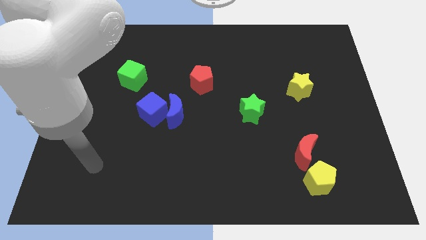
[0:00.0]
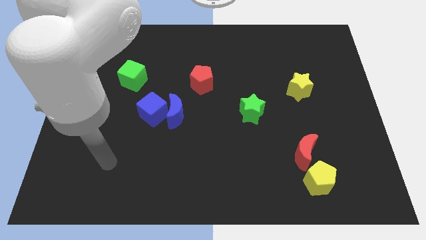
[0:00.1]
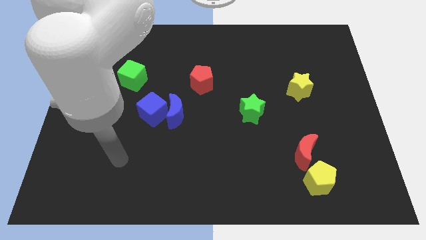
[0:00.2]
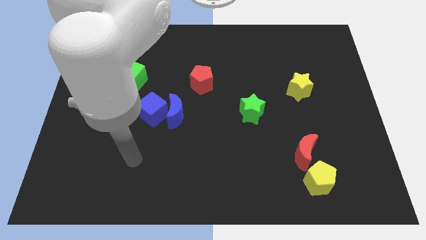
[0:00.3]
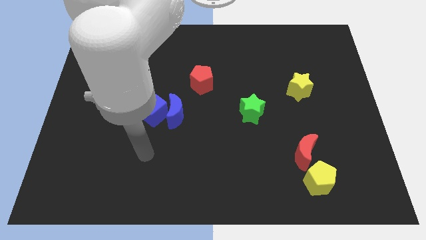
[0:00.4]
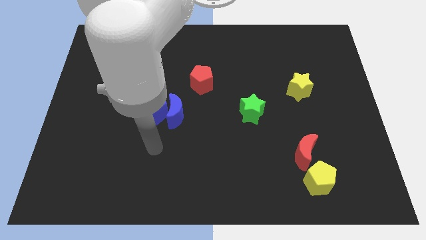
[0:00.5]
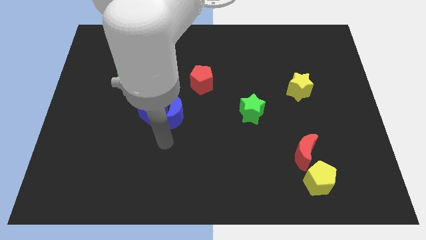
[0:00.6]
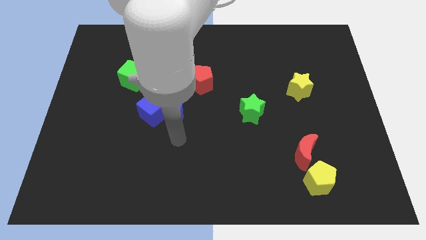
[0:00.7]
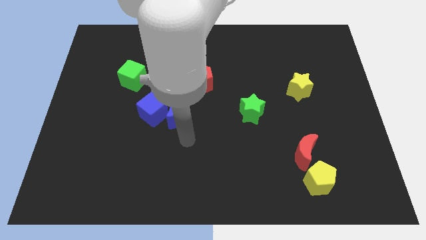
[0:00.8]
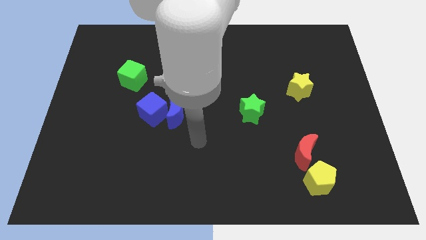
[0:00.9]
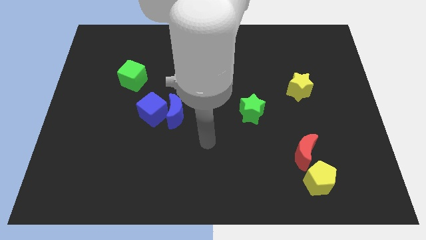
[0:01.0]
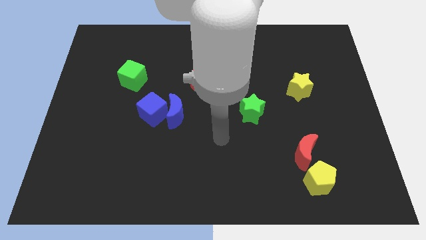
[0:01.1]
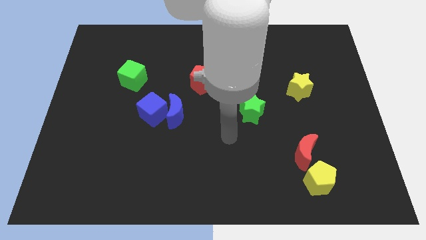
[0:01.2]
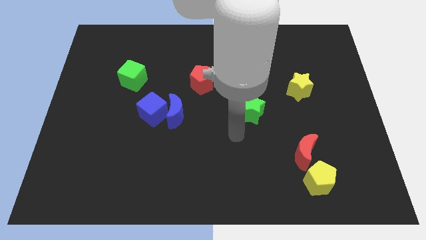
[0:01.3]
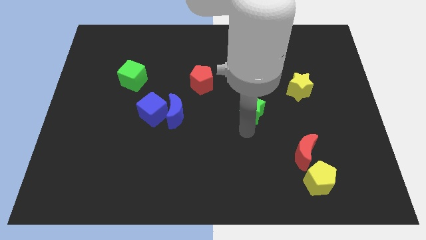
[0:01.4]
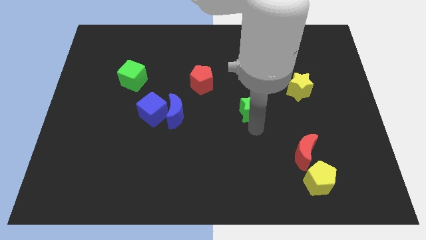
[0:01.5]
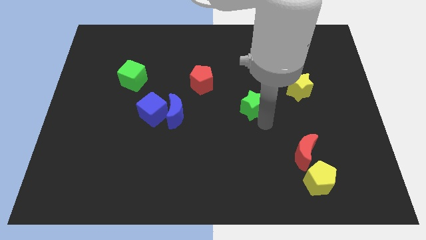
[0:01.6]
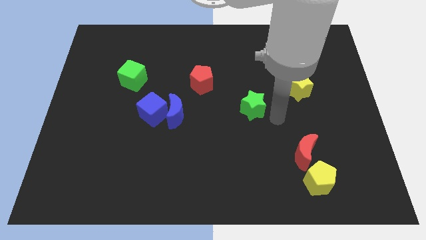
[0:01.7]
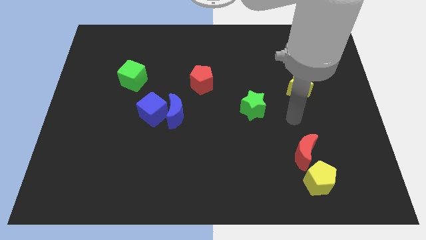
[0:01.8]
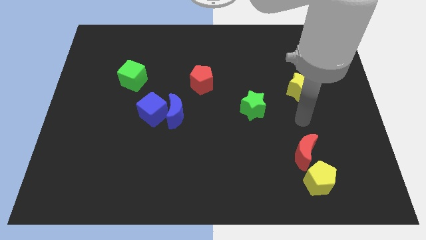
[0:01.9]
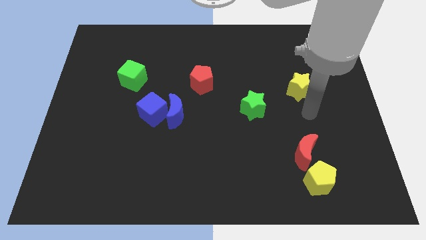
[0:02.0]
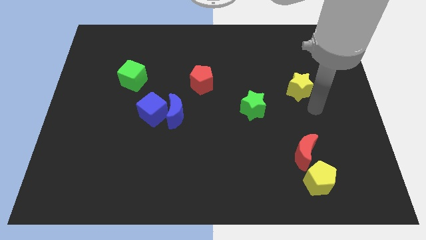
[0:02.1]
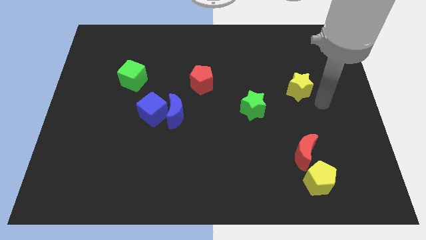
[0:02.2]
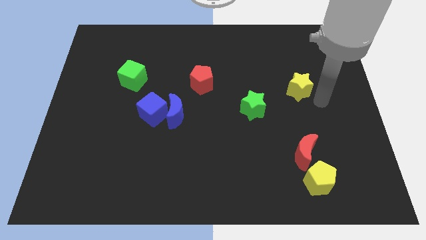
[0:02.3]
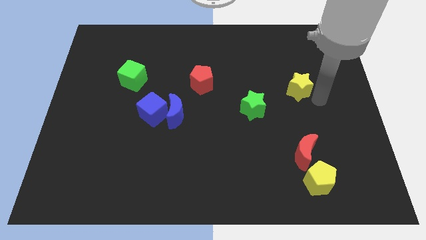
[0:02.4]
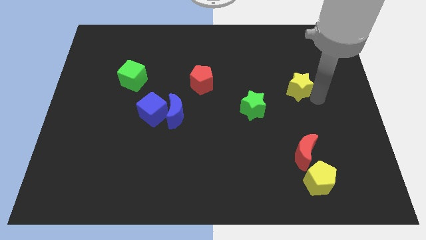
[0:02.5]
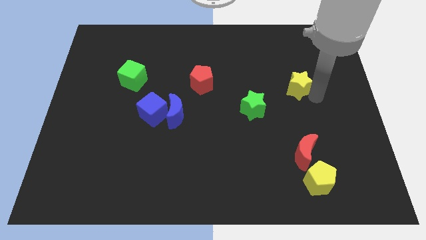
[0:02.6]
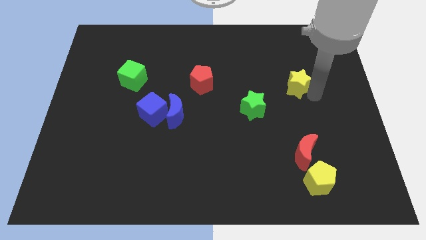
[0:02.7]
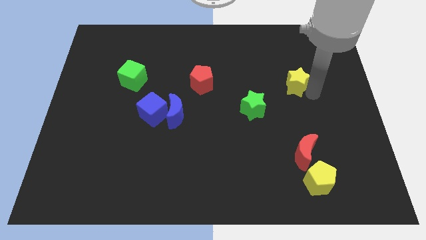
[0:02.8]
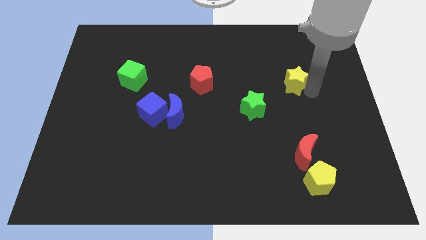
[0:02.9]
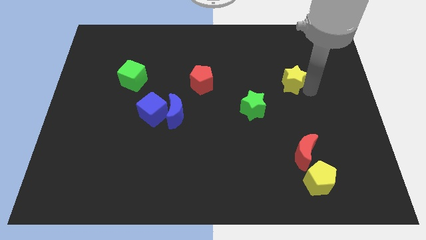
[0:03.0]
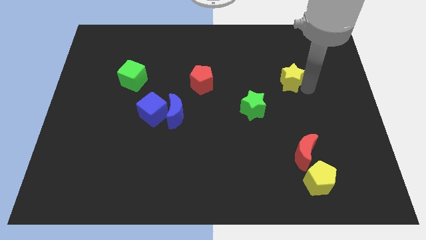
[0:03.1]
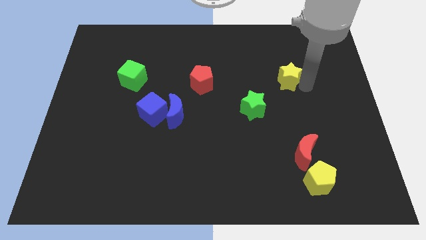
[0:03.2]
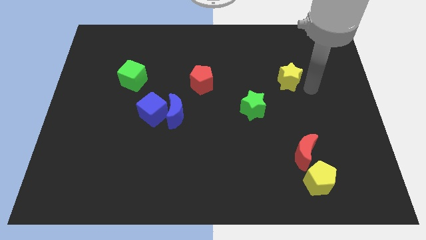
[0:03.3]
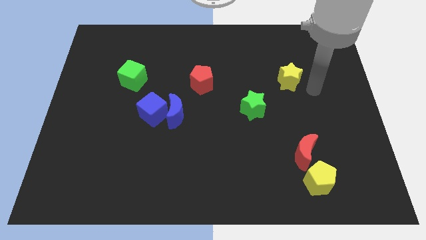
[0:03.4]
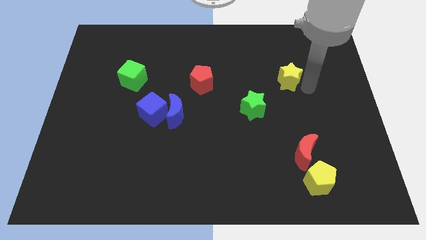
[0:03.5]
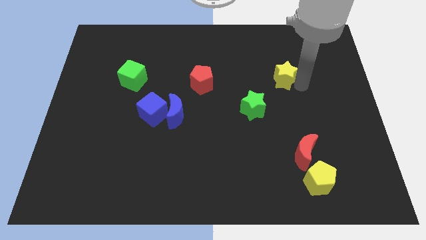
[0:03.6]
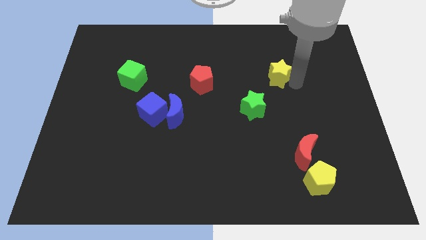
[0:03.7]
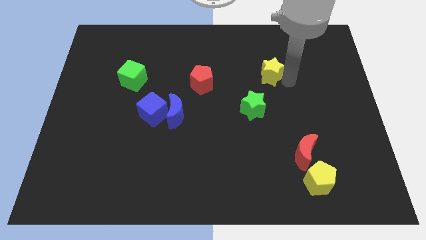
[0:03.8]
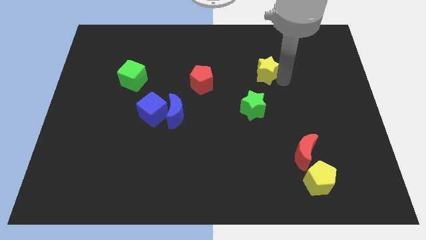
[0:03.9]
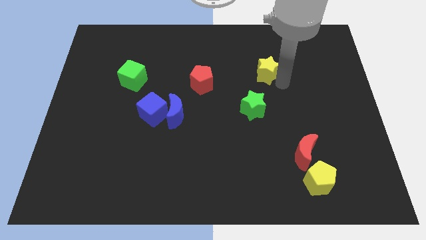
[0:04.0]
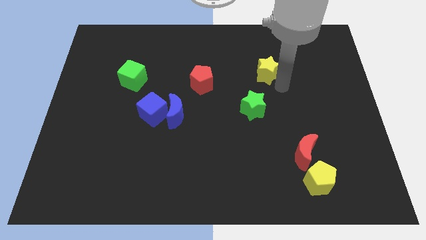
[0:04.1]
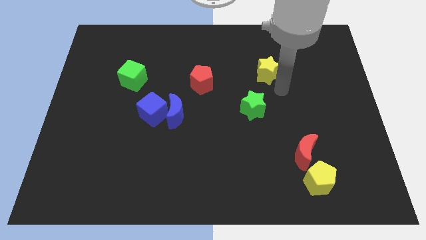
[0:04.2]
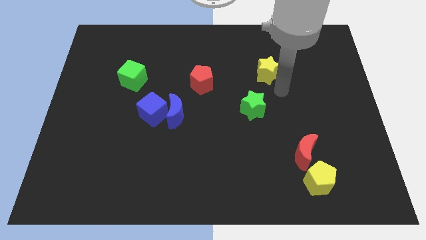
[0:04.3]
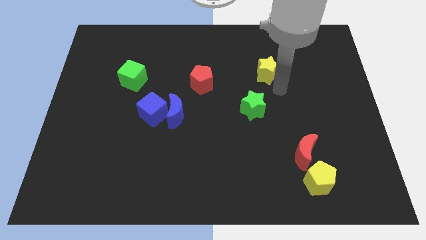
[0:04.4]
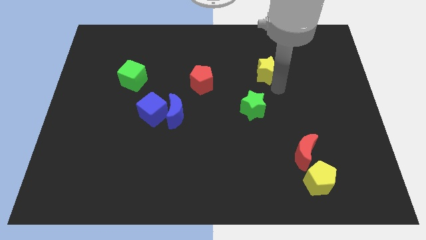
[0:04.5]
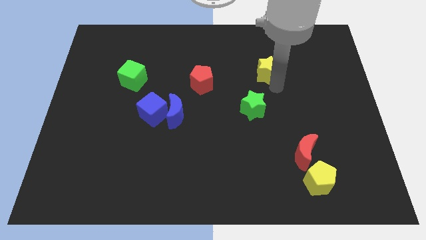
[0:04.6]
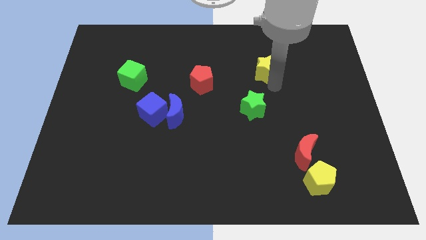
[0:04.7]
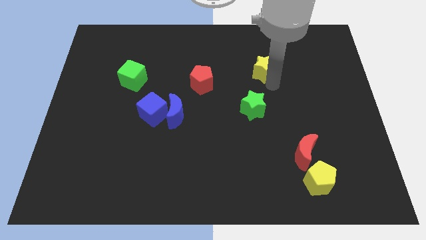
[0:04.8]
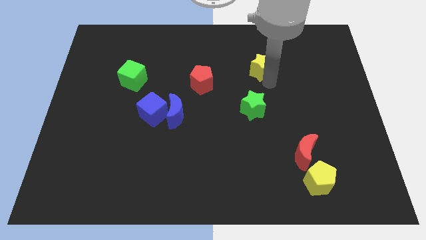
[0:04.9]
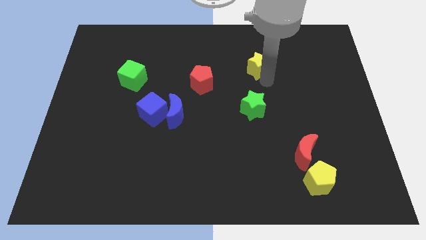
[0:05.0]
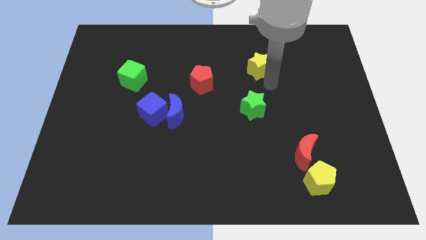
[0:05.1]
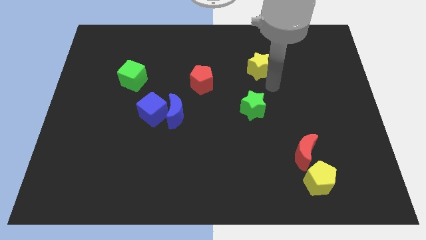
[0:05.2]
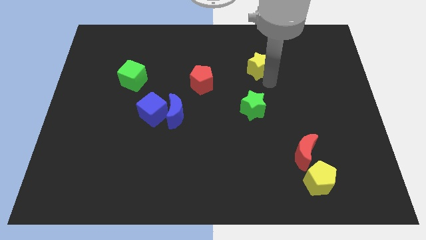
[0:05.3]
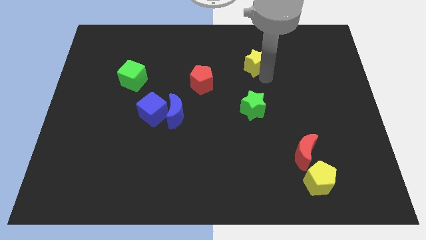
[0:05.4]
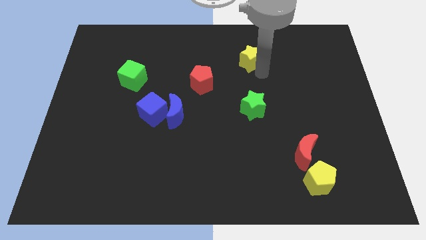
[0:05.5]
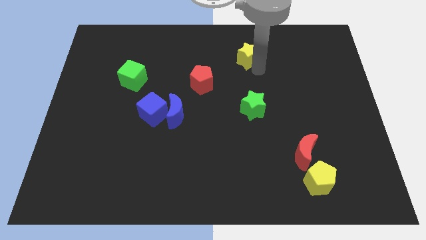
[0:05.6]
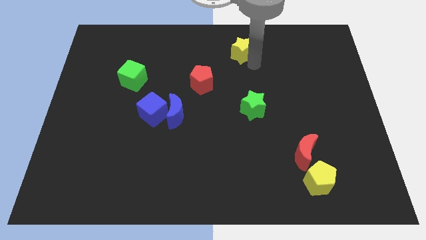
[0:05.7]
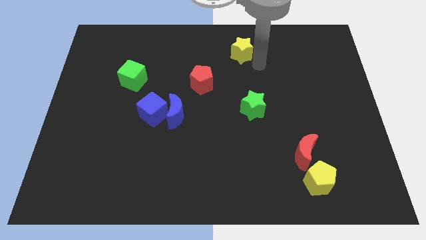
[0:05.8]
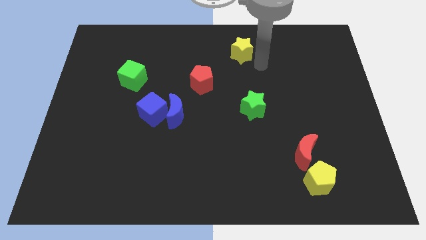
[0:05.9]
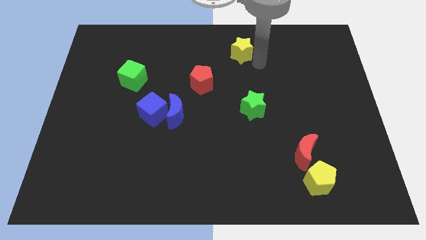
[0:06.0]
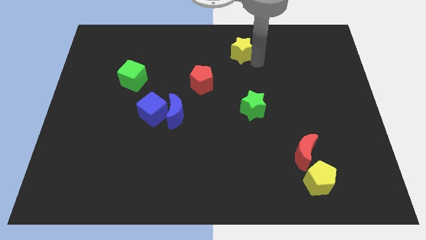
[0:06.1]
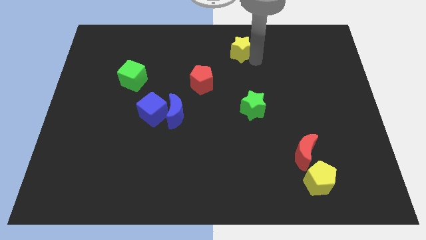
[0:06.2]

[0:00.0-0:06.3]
slide the yellow star to the top side

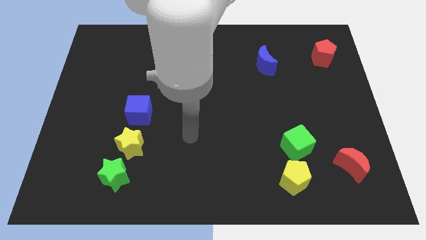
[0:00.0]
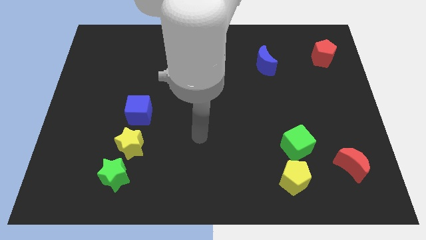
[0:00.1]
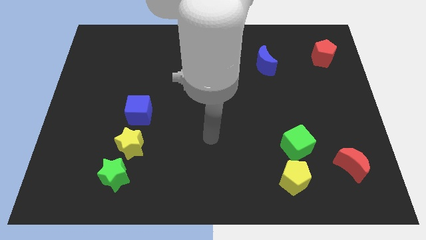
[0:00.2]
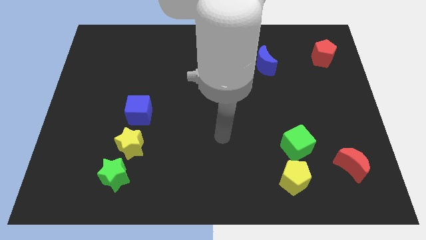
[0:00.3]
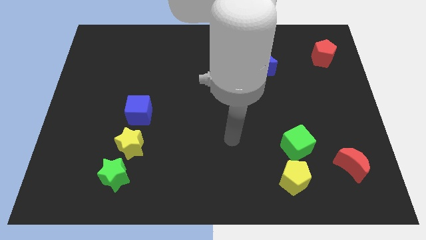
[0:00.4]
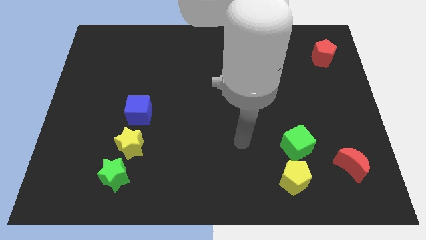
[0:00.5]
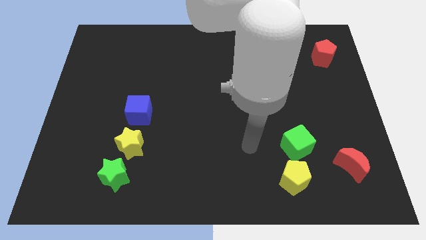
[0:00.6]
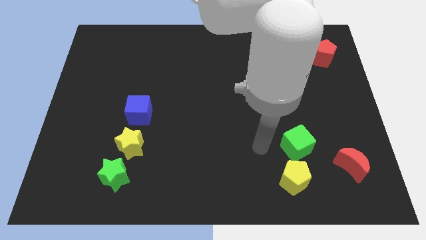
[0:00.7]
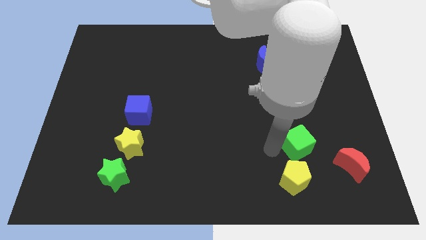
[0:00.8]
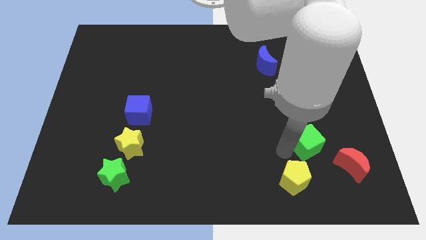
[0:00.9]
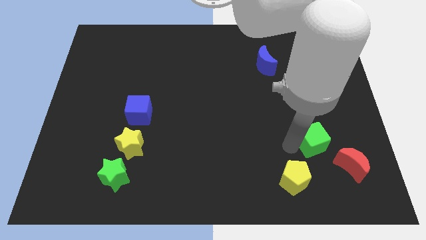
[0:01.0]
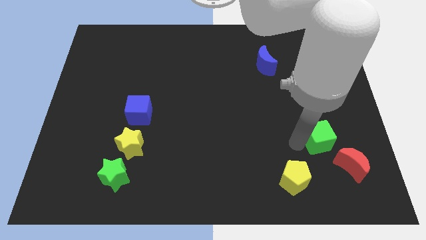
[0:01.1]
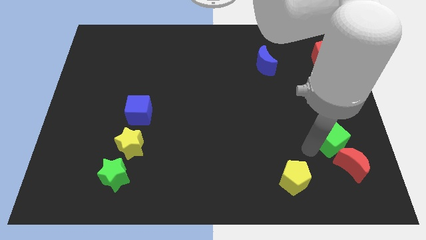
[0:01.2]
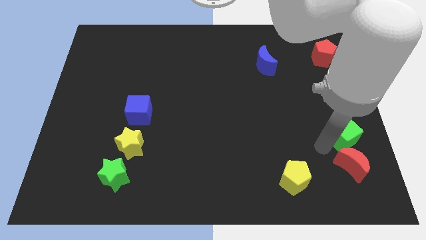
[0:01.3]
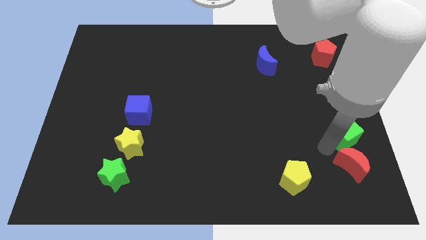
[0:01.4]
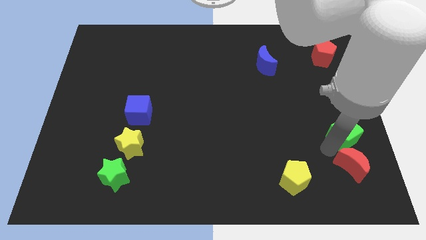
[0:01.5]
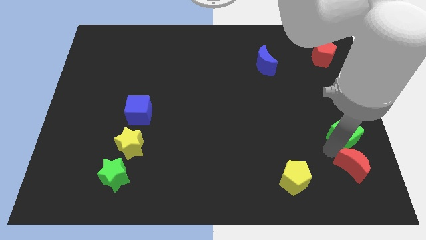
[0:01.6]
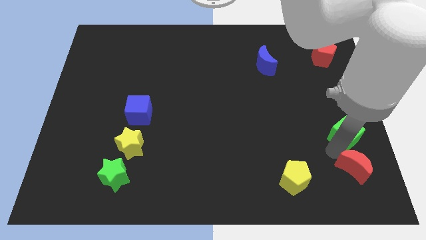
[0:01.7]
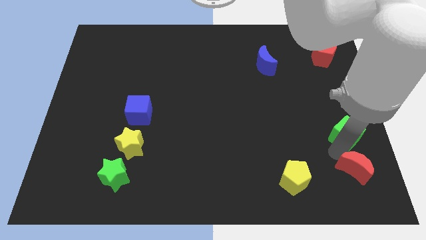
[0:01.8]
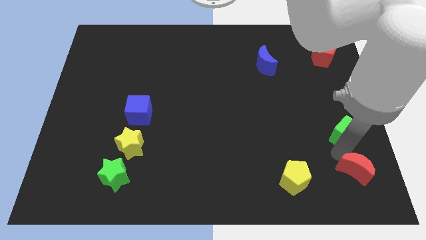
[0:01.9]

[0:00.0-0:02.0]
slide the red moon to the bottom right of the board
